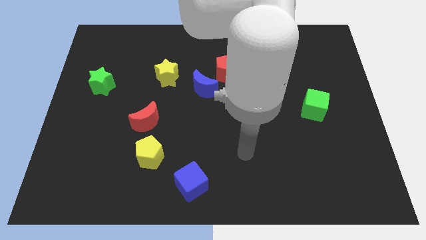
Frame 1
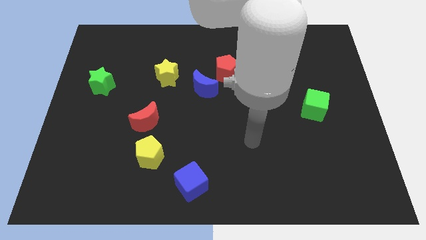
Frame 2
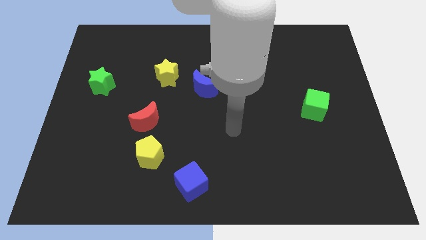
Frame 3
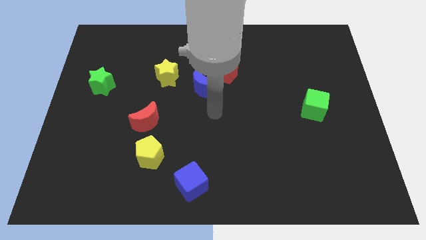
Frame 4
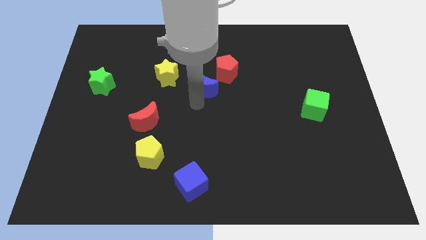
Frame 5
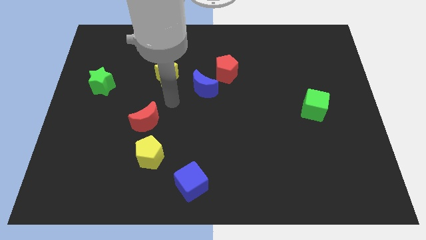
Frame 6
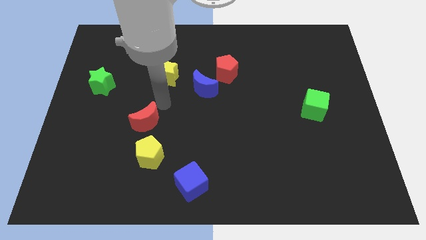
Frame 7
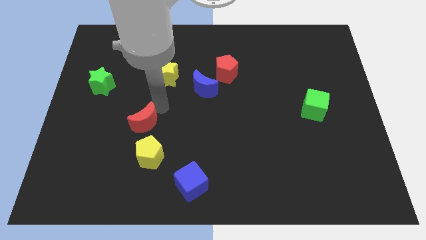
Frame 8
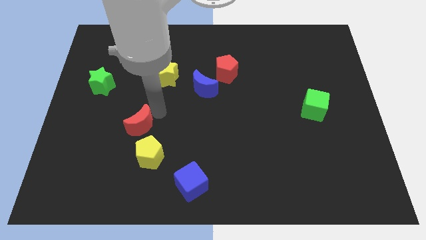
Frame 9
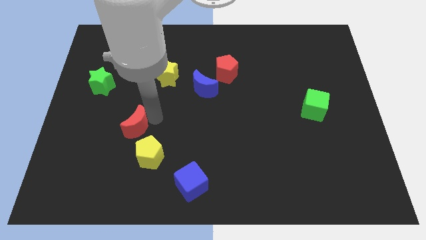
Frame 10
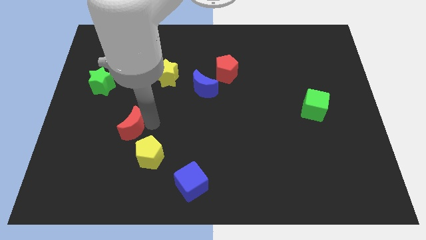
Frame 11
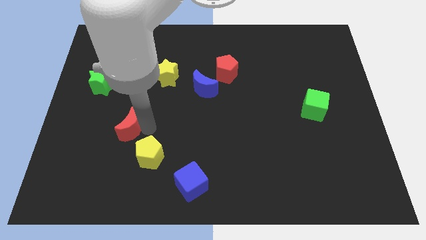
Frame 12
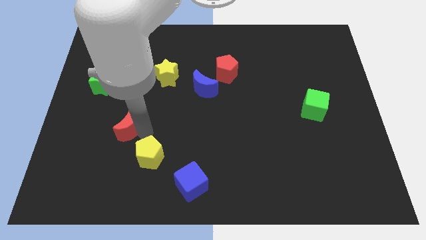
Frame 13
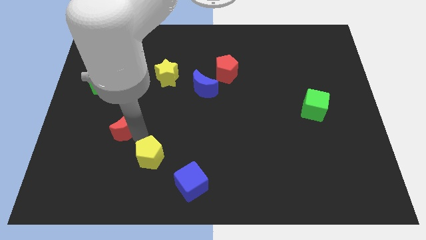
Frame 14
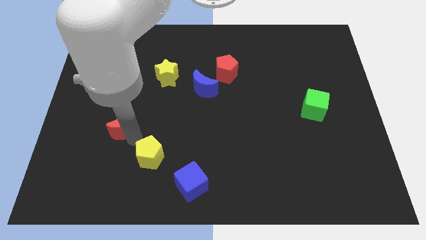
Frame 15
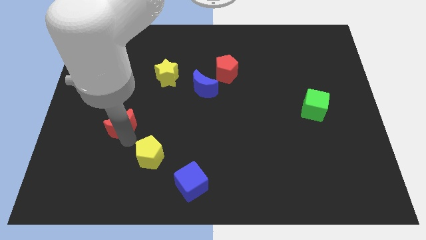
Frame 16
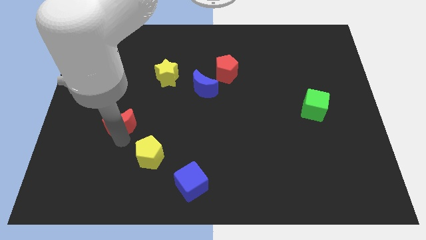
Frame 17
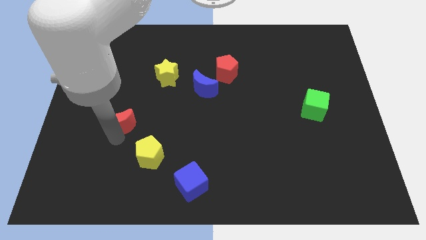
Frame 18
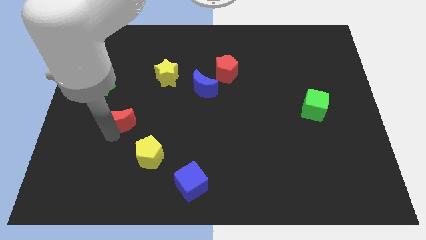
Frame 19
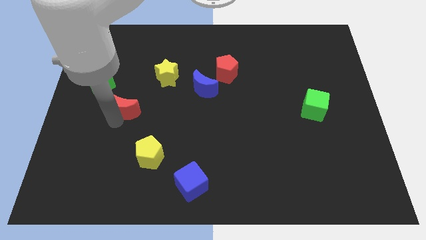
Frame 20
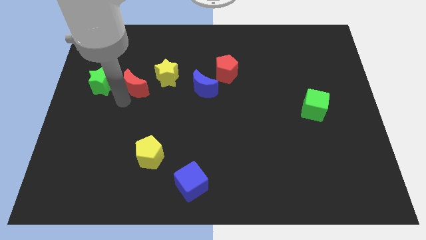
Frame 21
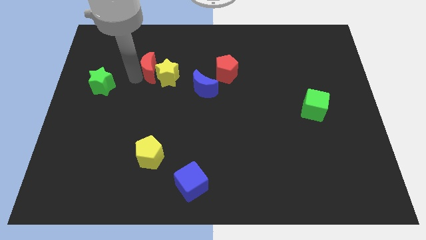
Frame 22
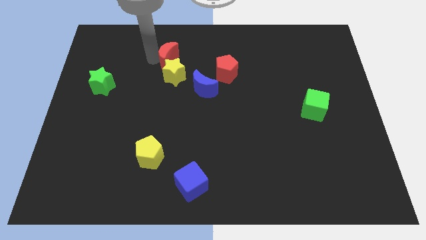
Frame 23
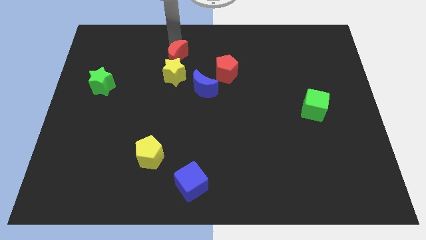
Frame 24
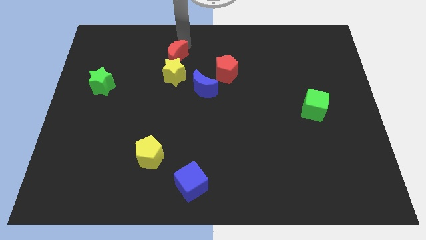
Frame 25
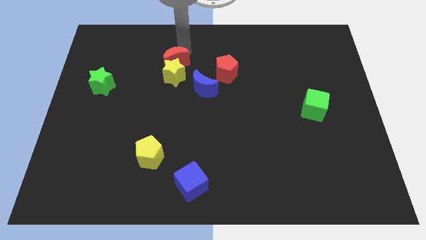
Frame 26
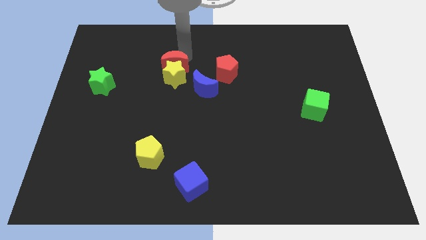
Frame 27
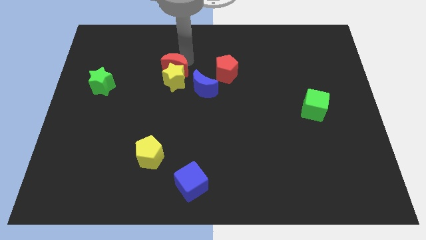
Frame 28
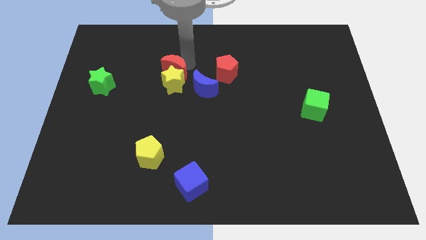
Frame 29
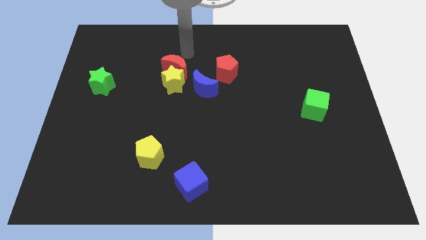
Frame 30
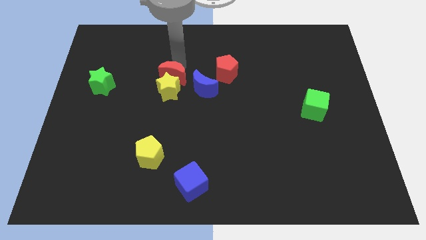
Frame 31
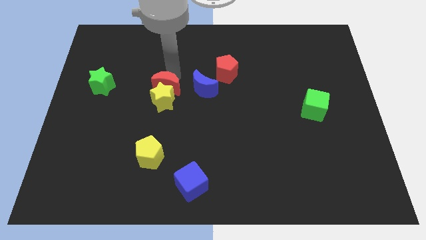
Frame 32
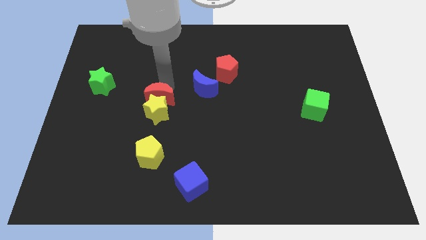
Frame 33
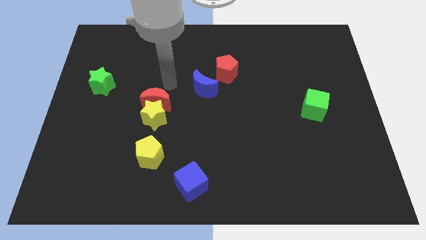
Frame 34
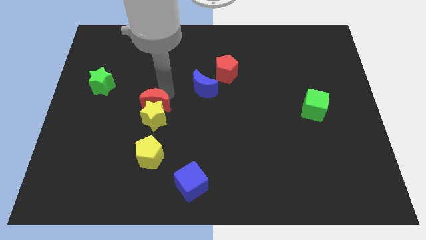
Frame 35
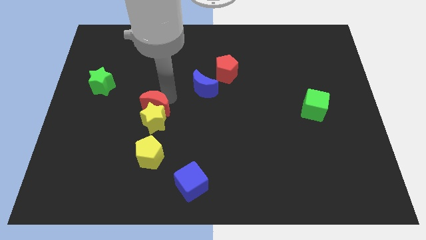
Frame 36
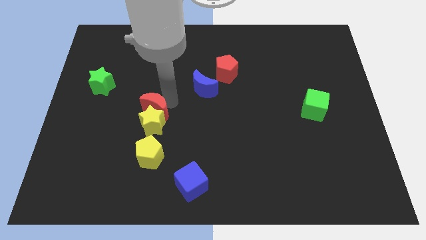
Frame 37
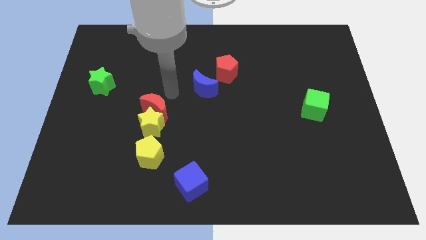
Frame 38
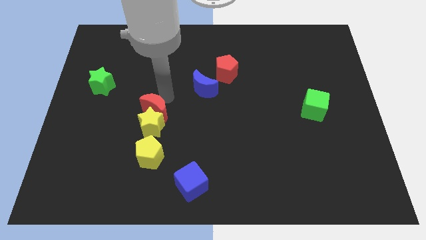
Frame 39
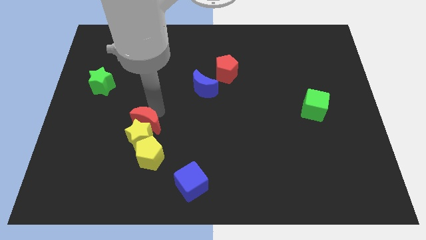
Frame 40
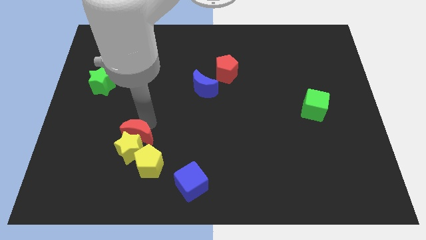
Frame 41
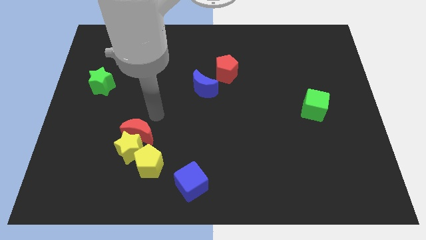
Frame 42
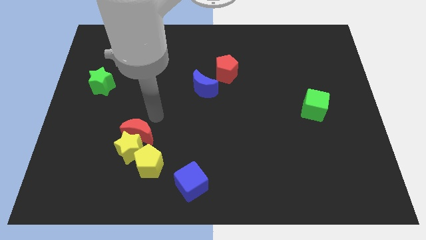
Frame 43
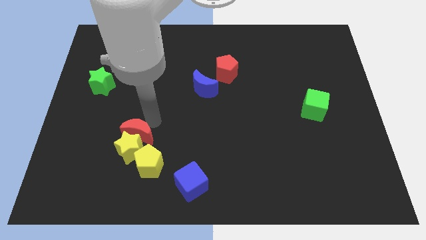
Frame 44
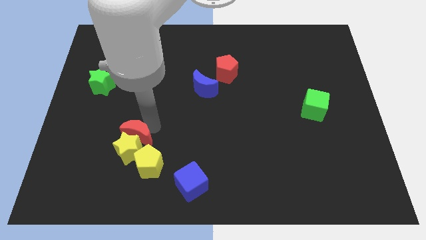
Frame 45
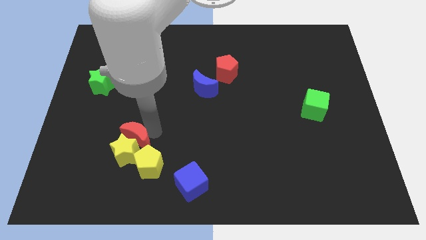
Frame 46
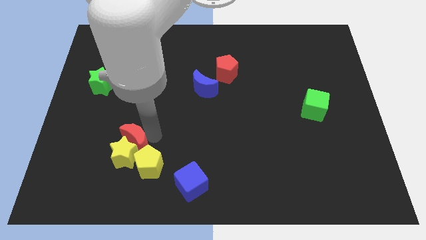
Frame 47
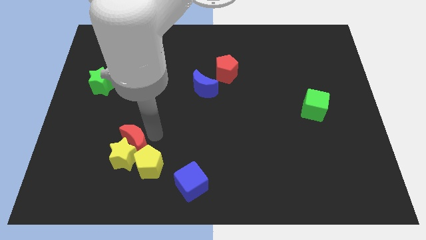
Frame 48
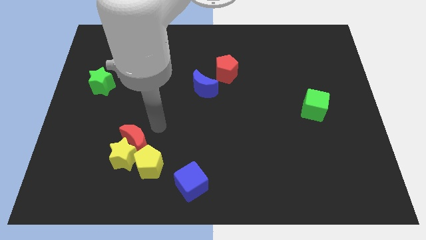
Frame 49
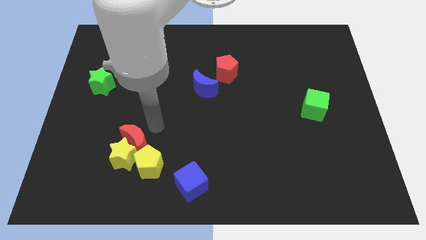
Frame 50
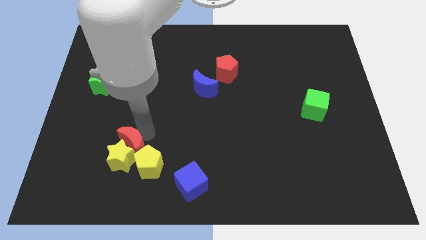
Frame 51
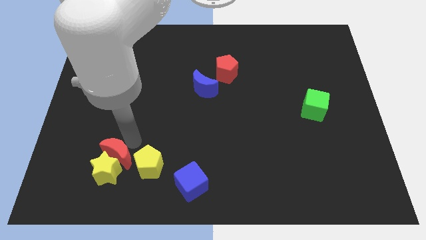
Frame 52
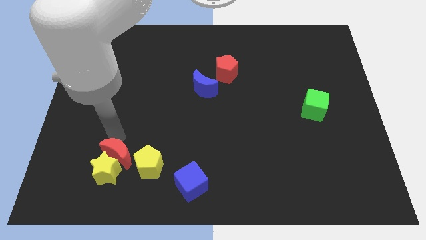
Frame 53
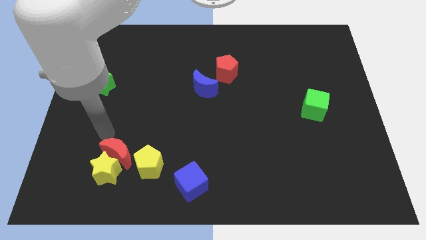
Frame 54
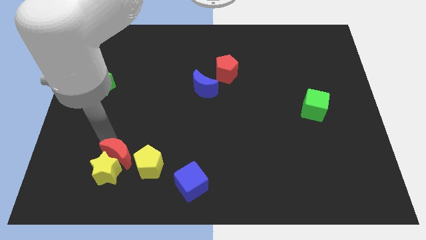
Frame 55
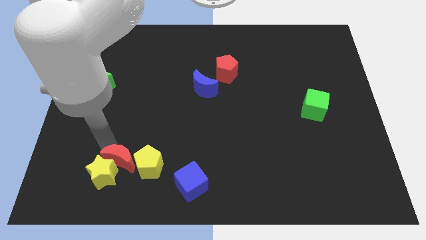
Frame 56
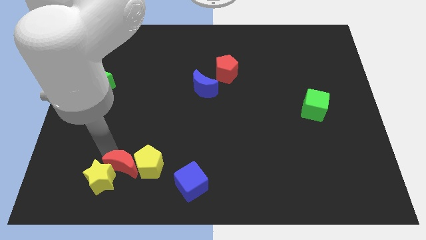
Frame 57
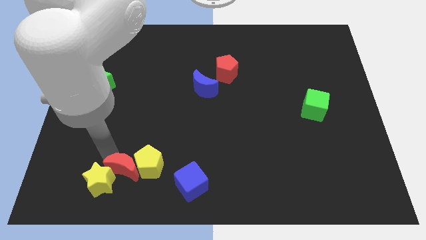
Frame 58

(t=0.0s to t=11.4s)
put the red moon to the left side of the blue cube

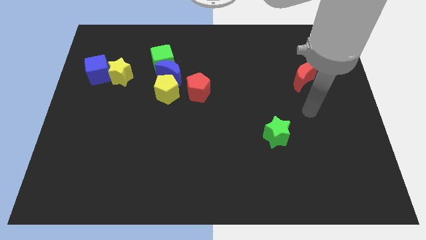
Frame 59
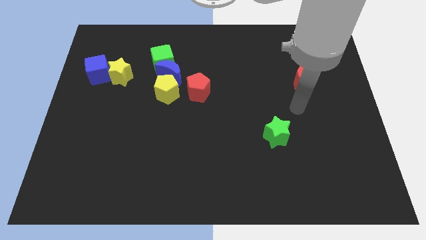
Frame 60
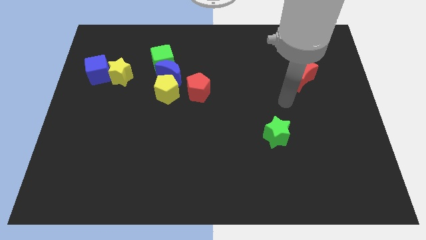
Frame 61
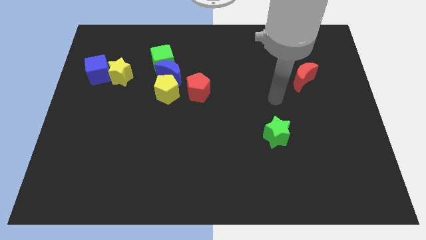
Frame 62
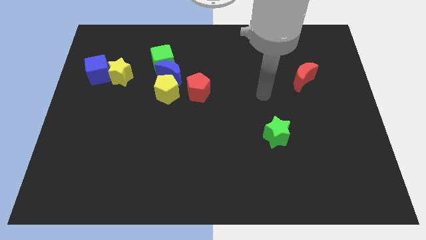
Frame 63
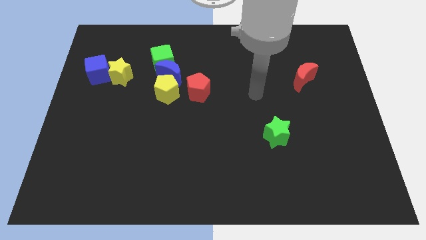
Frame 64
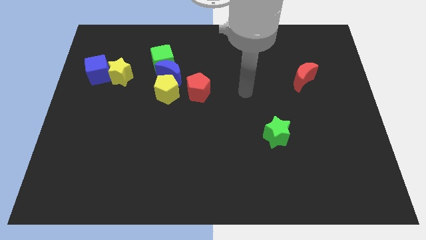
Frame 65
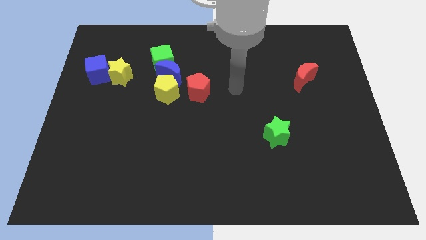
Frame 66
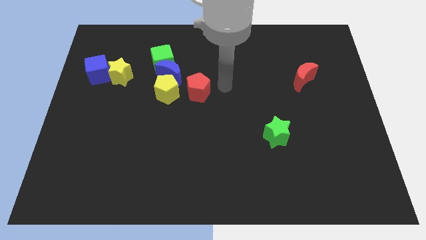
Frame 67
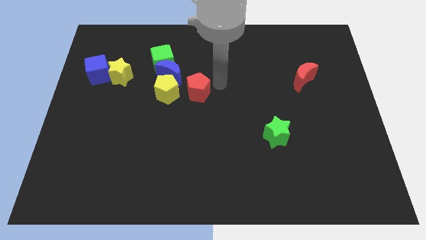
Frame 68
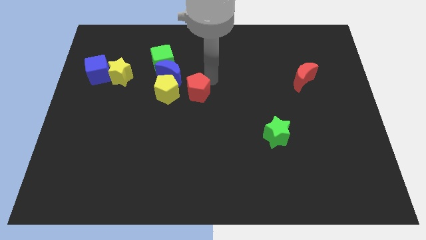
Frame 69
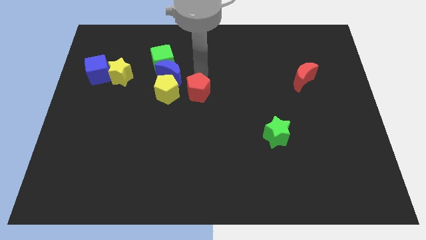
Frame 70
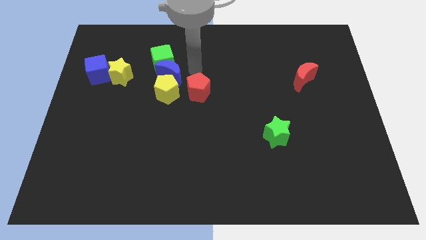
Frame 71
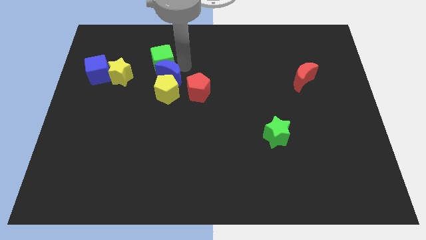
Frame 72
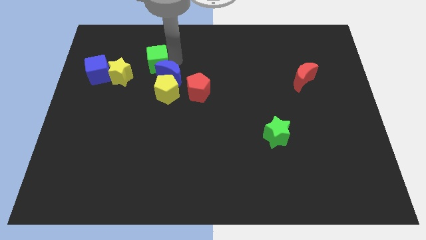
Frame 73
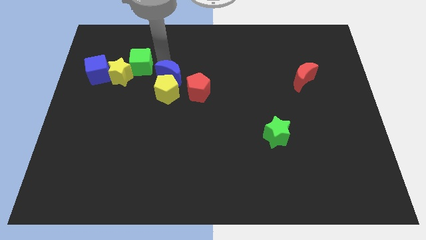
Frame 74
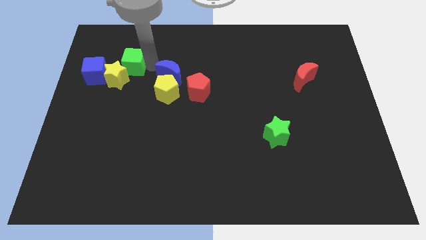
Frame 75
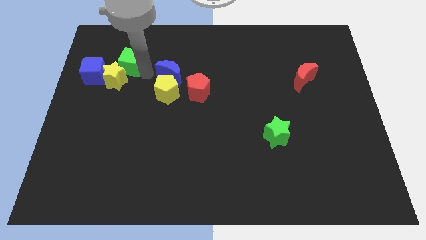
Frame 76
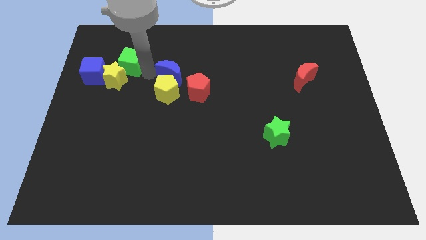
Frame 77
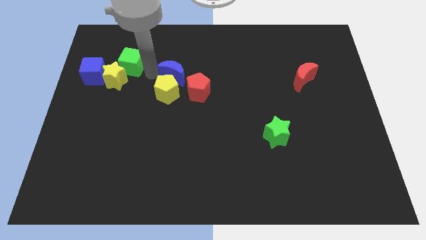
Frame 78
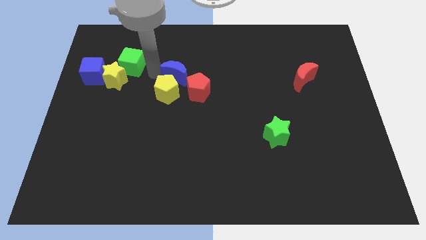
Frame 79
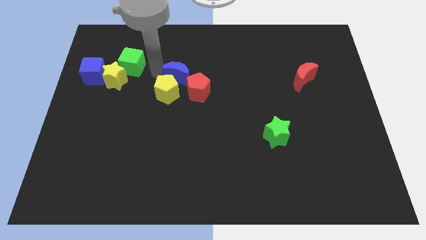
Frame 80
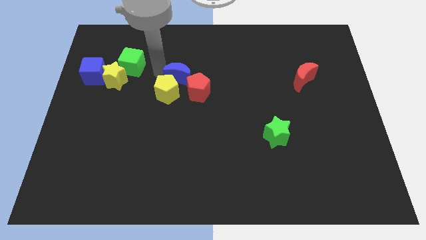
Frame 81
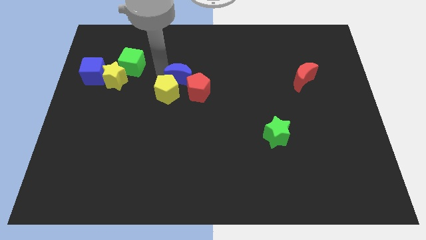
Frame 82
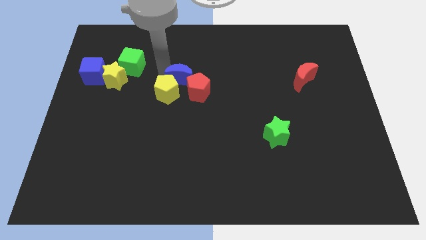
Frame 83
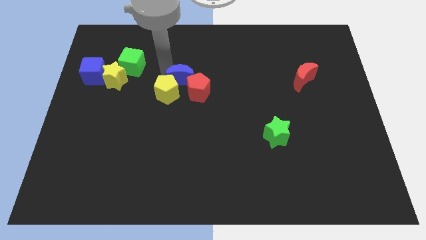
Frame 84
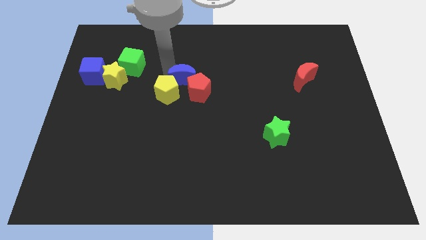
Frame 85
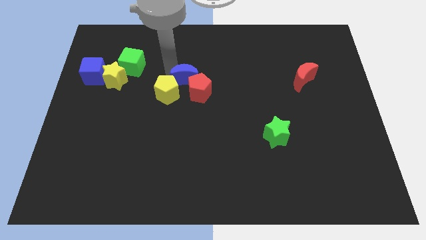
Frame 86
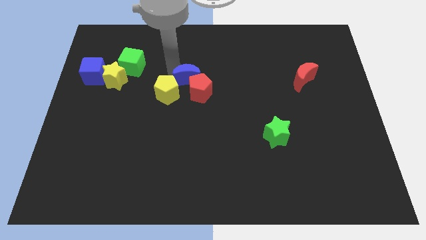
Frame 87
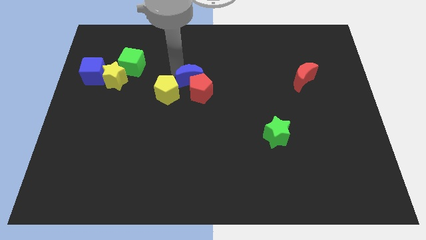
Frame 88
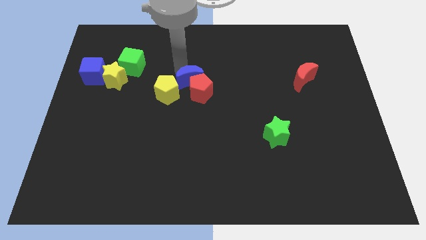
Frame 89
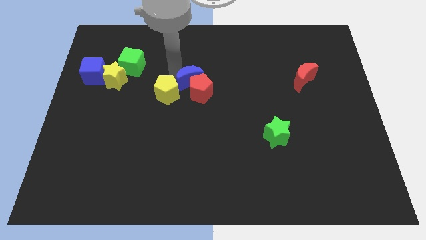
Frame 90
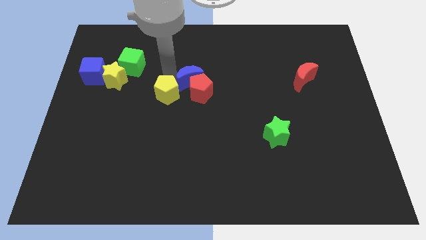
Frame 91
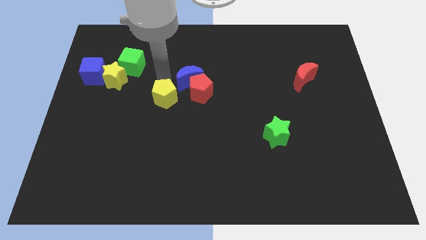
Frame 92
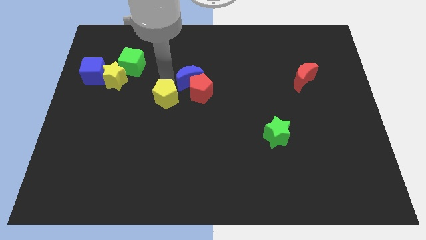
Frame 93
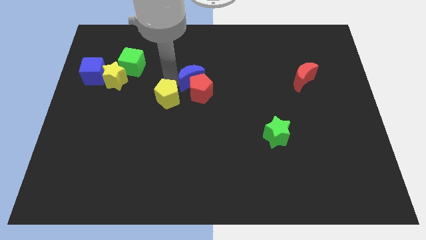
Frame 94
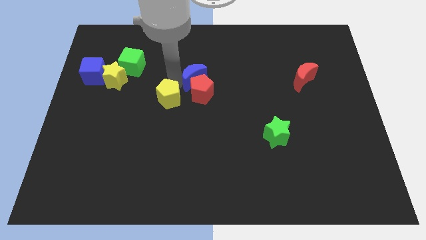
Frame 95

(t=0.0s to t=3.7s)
move the blue moon diagonally up and to the right of the red pentagon
